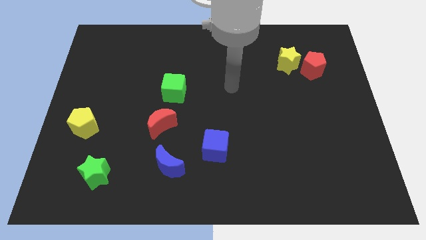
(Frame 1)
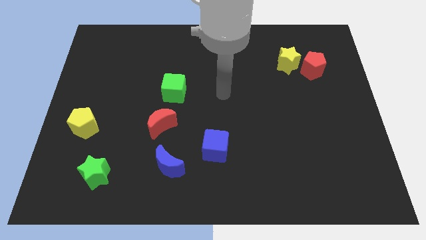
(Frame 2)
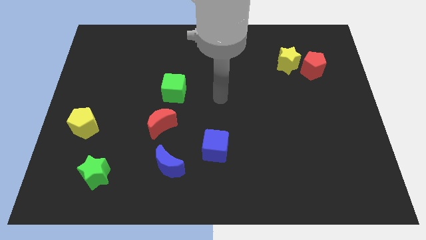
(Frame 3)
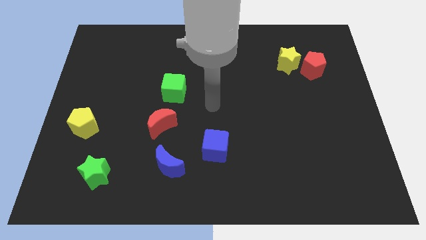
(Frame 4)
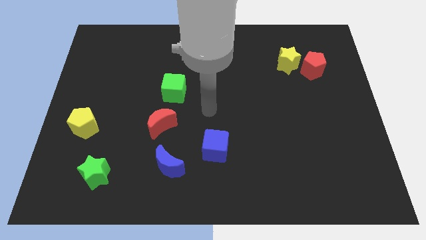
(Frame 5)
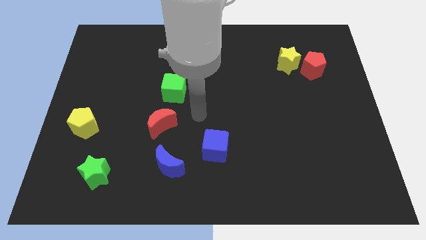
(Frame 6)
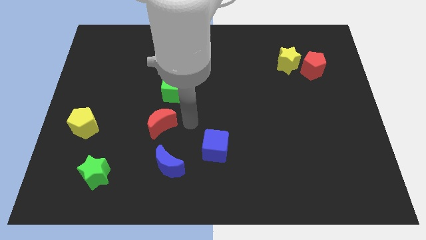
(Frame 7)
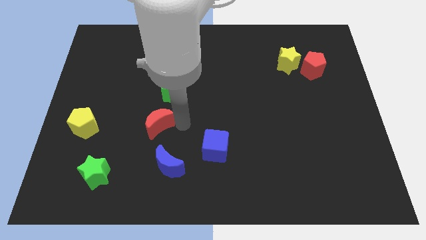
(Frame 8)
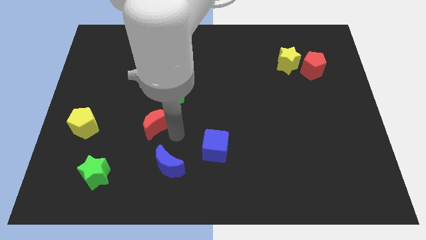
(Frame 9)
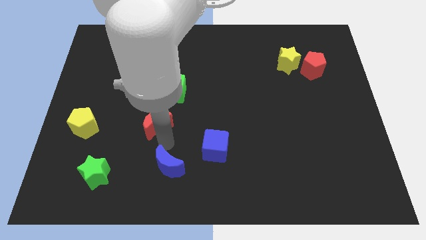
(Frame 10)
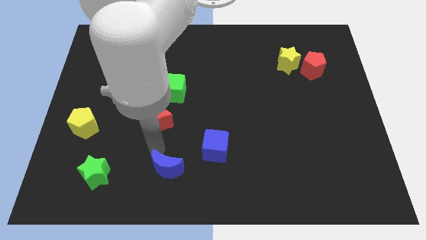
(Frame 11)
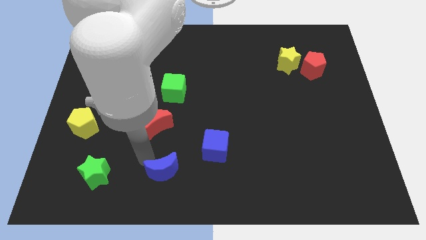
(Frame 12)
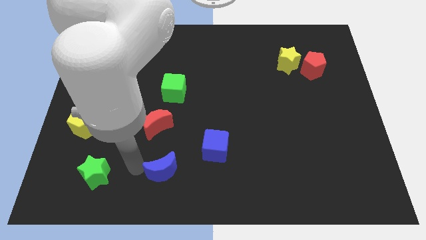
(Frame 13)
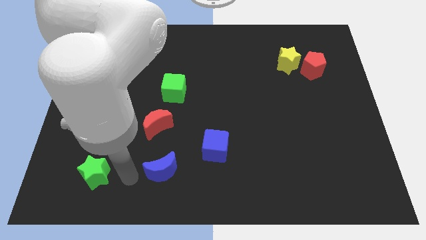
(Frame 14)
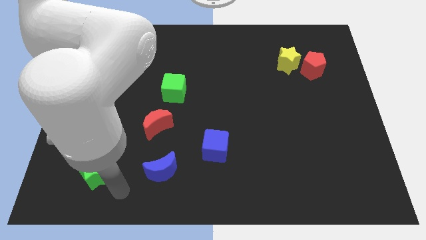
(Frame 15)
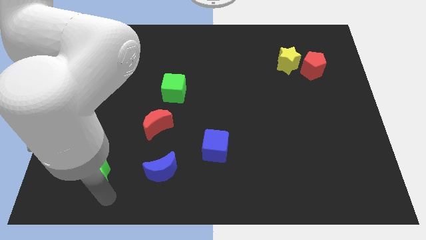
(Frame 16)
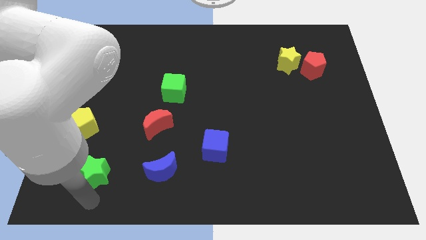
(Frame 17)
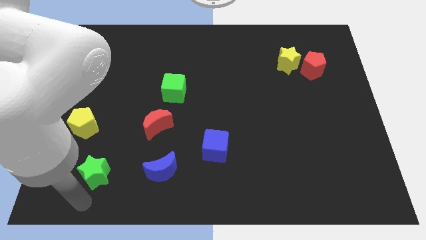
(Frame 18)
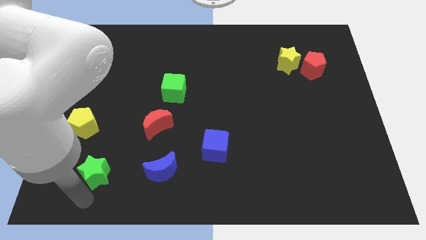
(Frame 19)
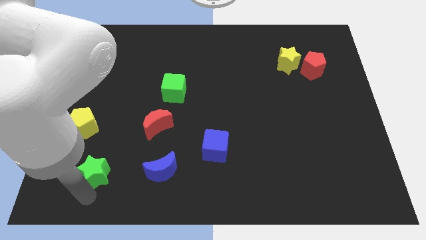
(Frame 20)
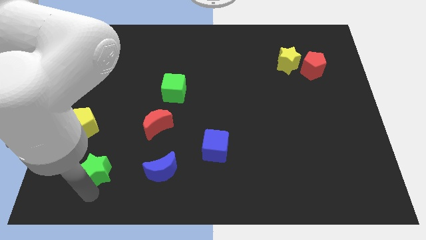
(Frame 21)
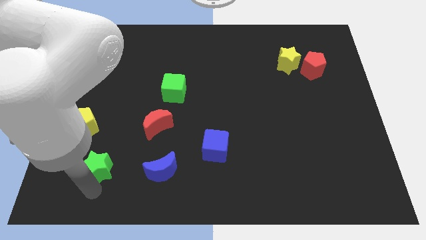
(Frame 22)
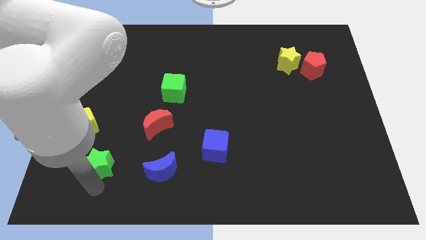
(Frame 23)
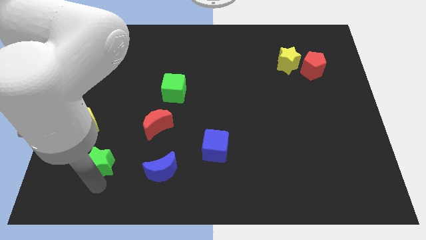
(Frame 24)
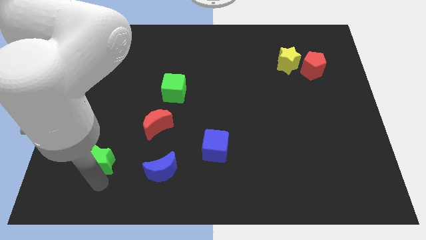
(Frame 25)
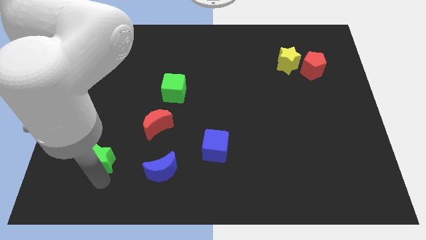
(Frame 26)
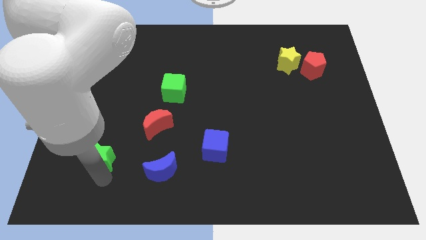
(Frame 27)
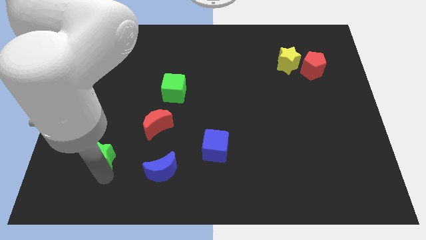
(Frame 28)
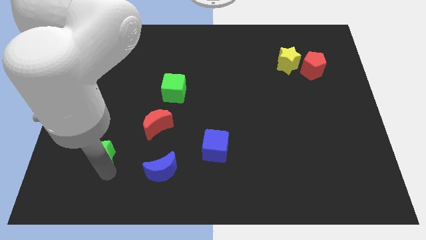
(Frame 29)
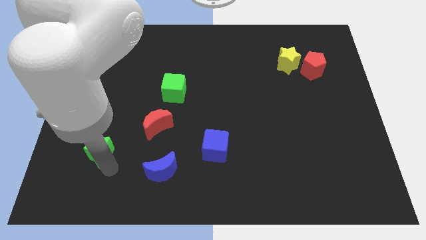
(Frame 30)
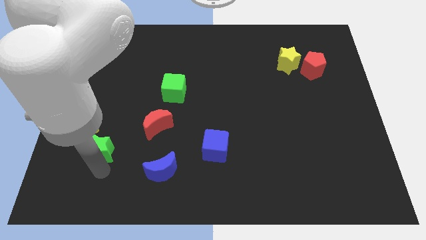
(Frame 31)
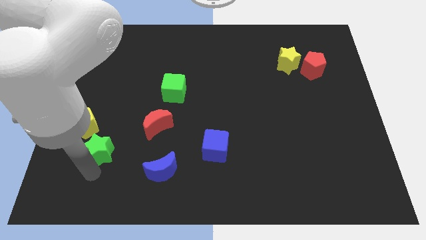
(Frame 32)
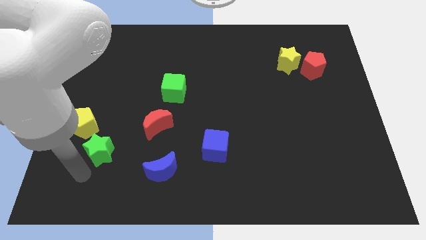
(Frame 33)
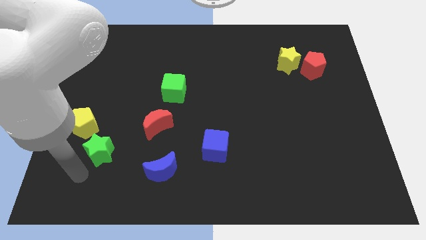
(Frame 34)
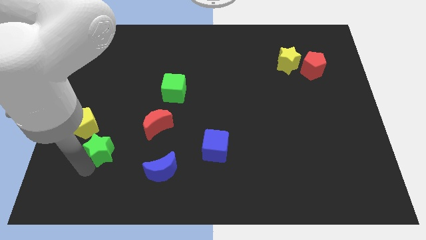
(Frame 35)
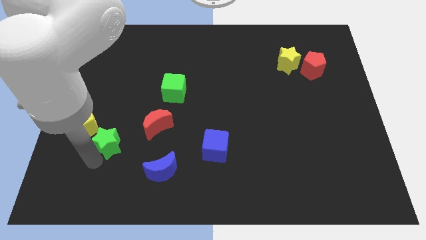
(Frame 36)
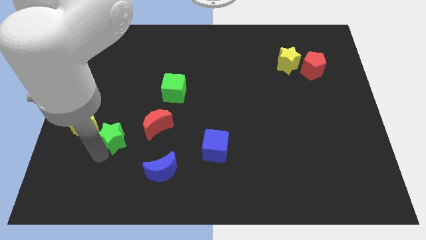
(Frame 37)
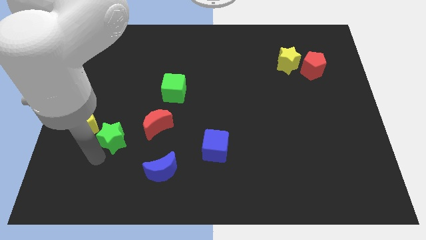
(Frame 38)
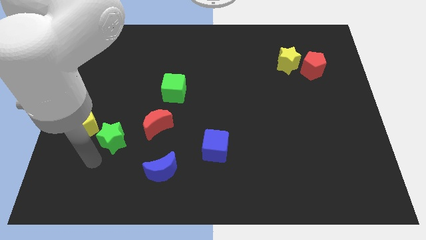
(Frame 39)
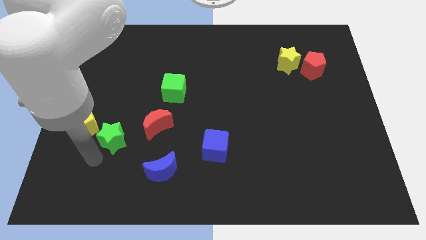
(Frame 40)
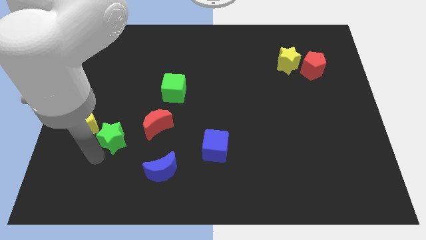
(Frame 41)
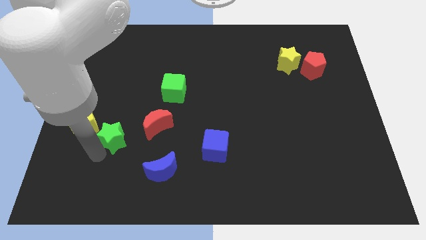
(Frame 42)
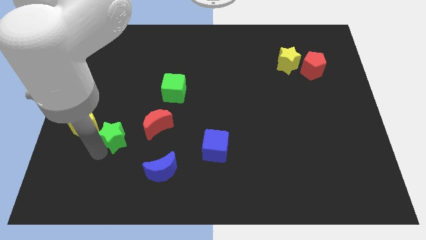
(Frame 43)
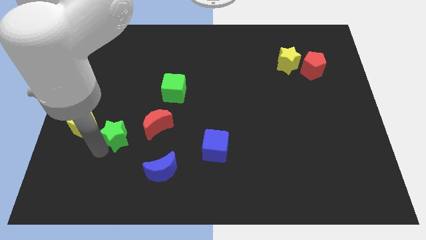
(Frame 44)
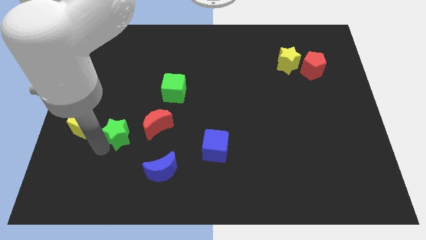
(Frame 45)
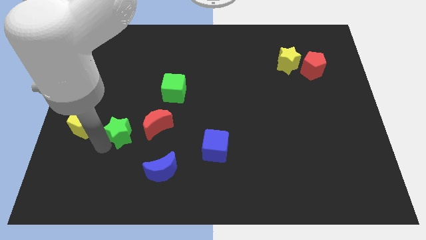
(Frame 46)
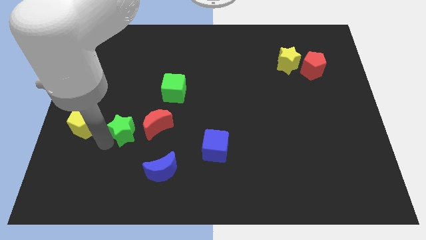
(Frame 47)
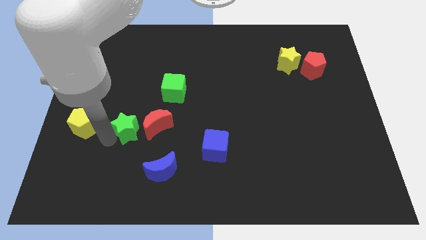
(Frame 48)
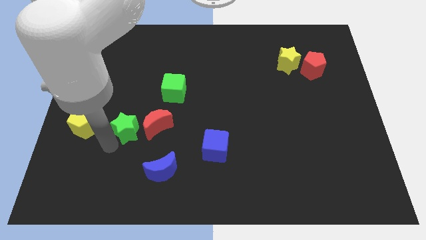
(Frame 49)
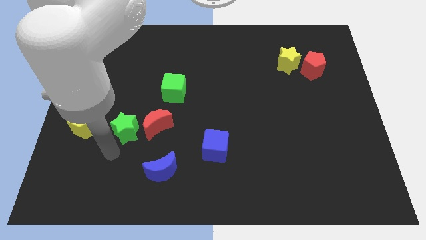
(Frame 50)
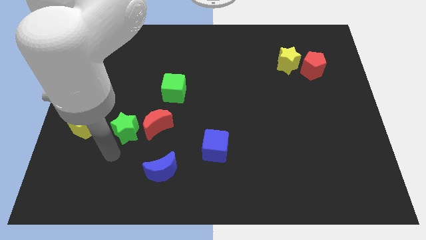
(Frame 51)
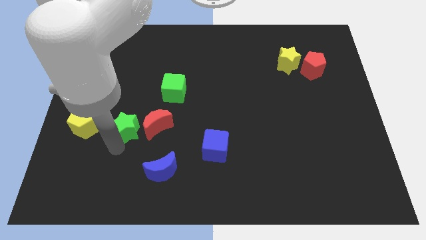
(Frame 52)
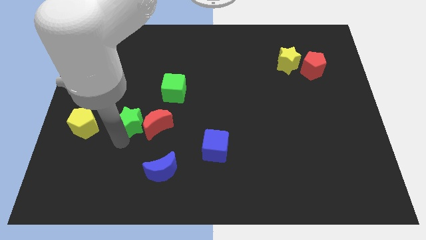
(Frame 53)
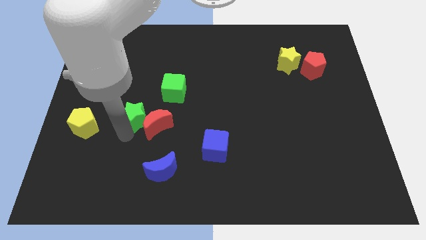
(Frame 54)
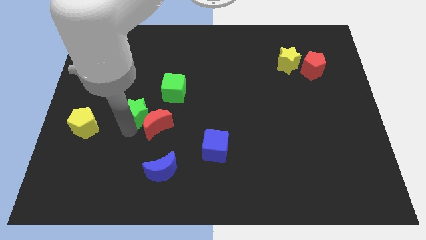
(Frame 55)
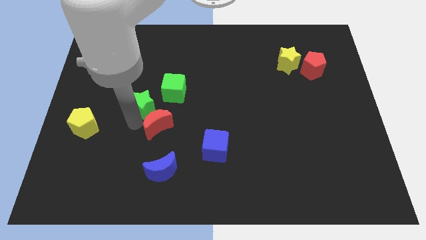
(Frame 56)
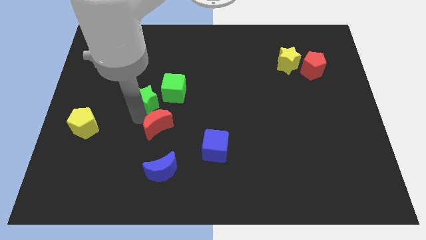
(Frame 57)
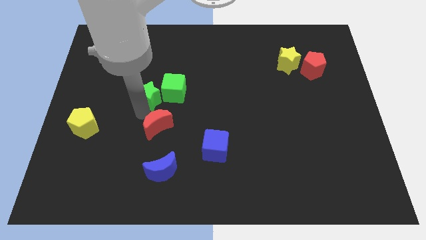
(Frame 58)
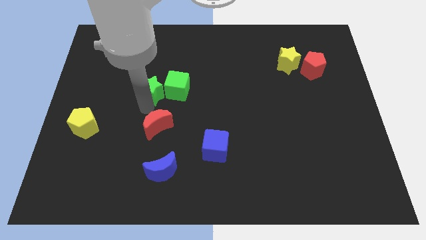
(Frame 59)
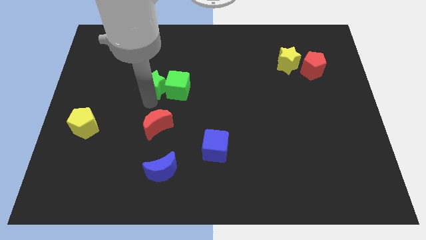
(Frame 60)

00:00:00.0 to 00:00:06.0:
move the green star to the top left side of the green cube

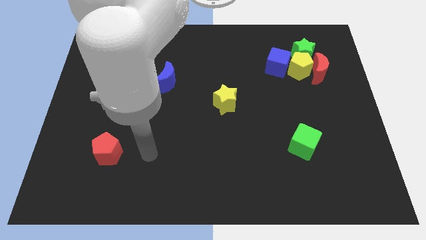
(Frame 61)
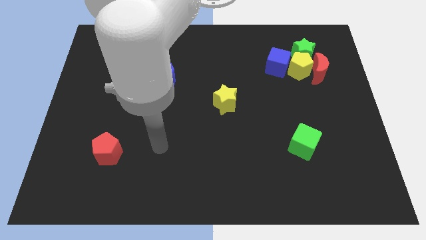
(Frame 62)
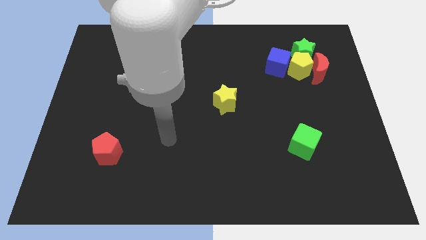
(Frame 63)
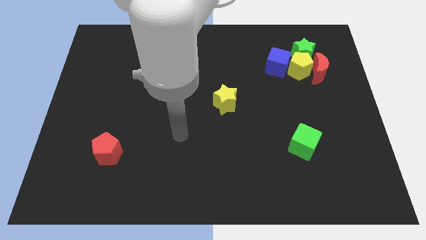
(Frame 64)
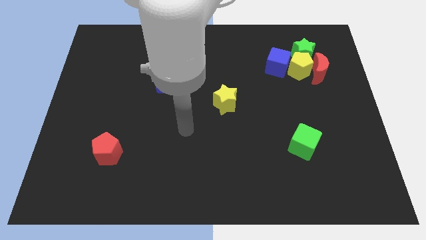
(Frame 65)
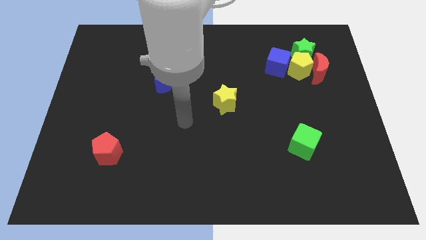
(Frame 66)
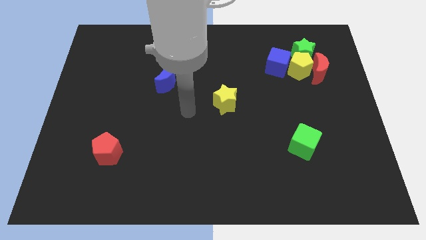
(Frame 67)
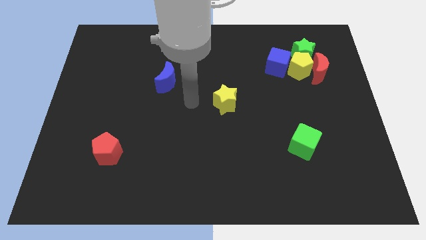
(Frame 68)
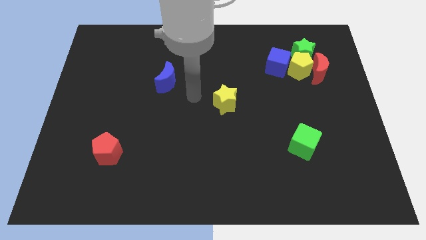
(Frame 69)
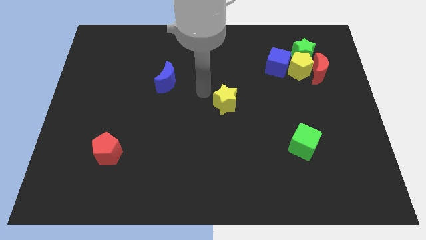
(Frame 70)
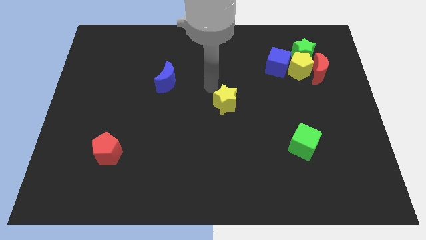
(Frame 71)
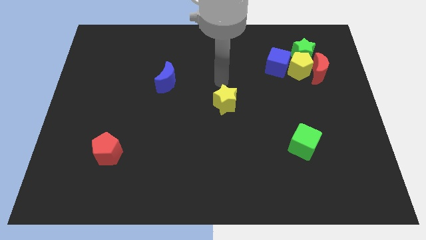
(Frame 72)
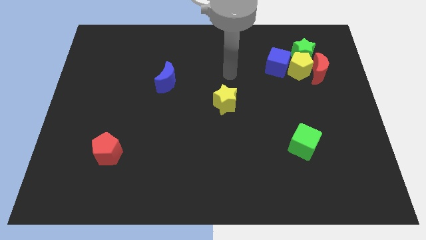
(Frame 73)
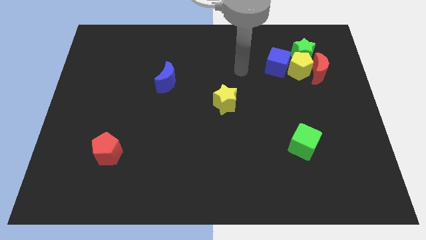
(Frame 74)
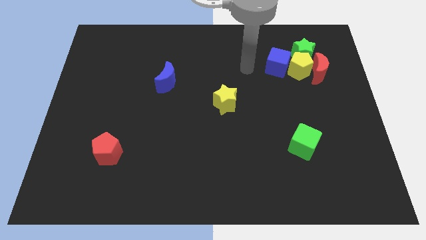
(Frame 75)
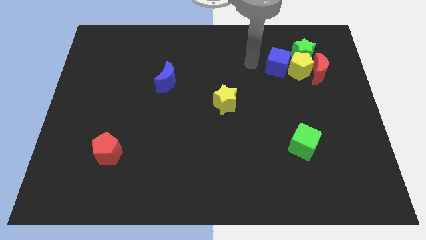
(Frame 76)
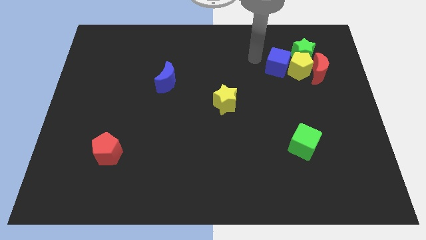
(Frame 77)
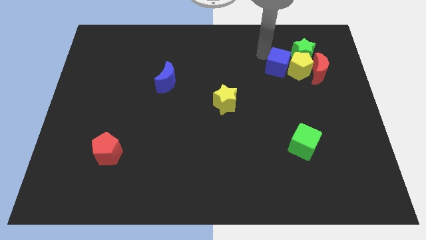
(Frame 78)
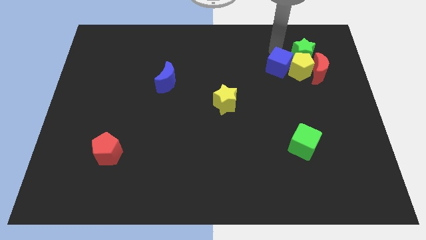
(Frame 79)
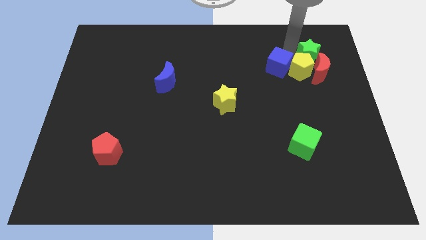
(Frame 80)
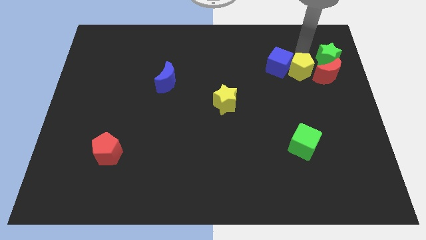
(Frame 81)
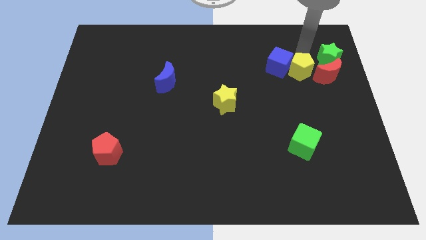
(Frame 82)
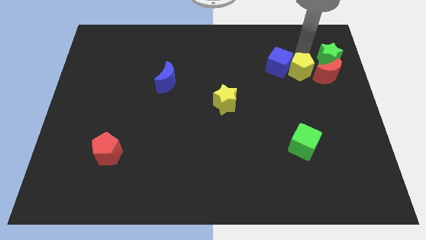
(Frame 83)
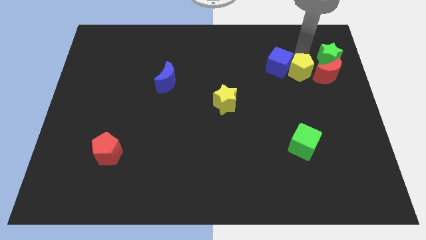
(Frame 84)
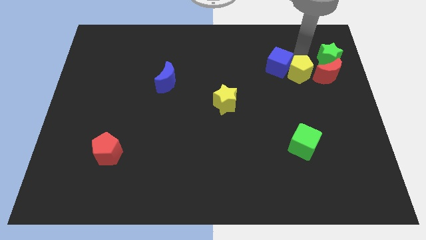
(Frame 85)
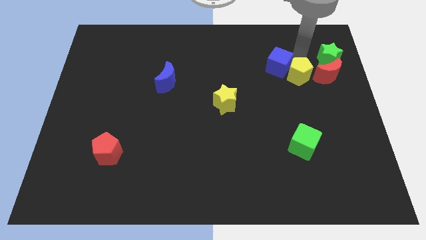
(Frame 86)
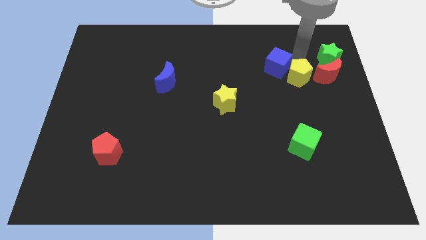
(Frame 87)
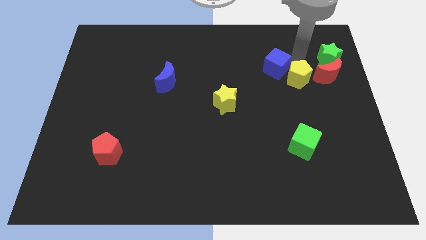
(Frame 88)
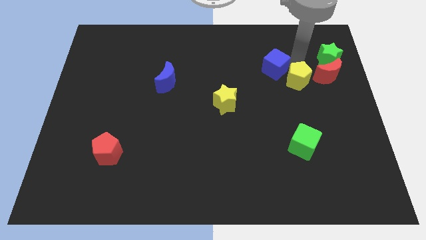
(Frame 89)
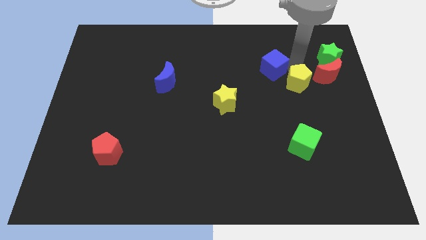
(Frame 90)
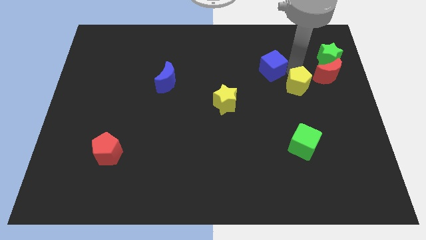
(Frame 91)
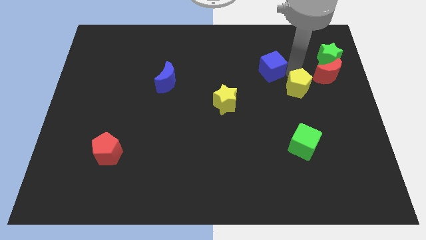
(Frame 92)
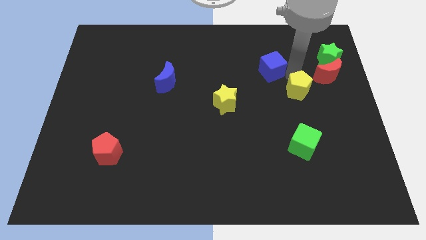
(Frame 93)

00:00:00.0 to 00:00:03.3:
put the yellow pentagon above the green cube
